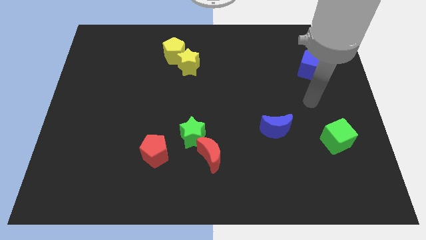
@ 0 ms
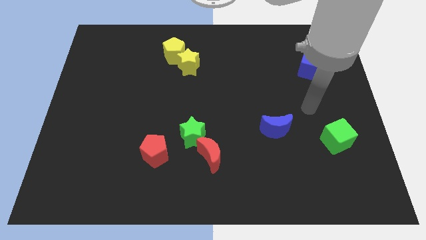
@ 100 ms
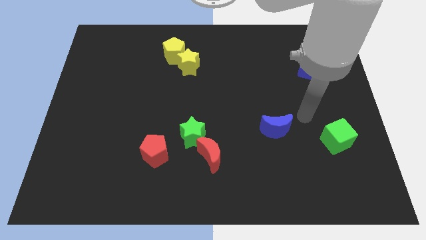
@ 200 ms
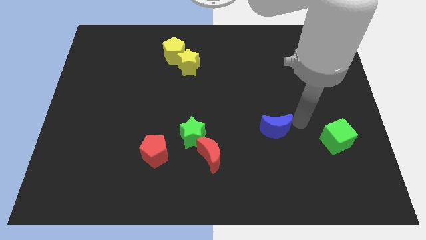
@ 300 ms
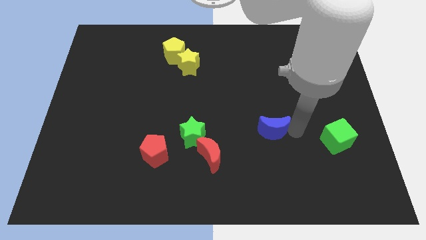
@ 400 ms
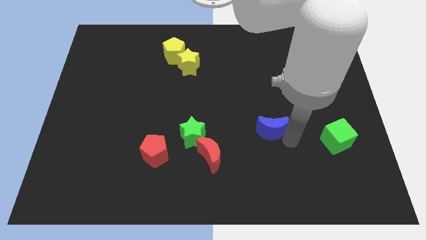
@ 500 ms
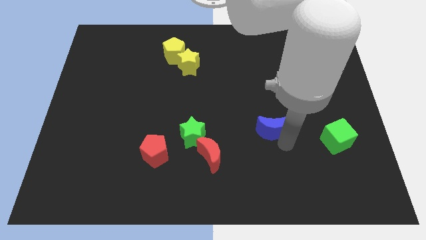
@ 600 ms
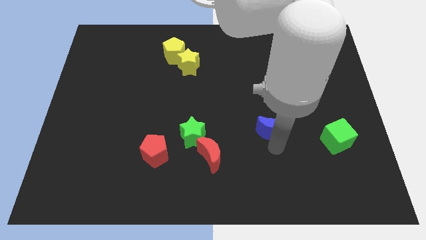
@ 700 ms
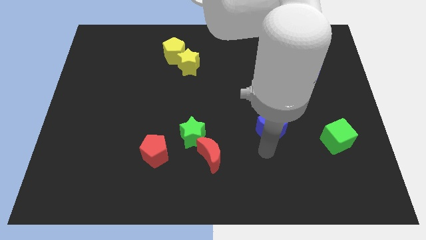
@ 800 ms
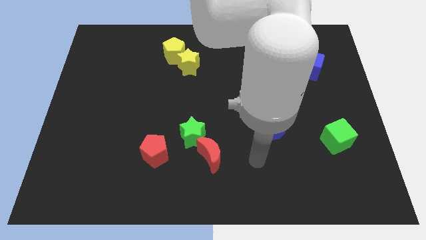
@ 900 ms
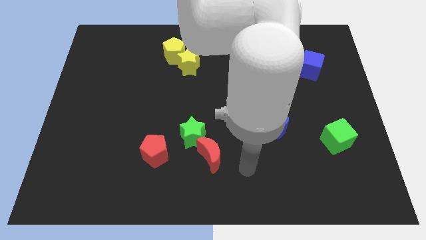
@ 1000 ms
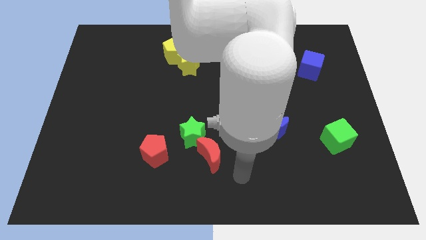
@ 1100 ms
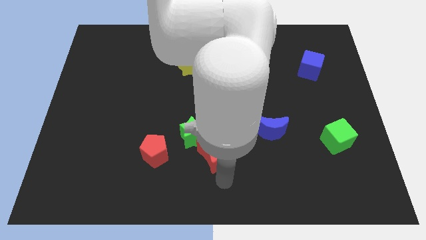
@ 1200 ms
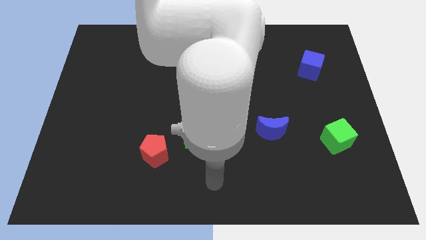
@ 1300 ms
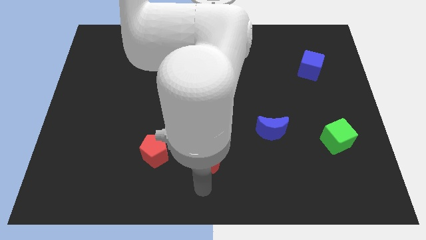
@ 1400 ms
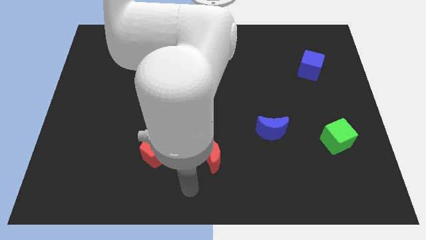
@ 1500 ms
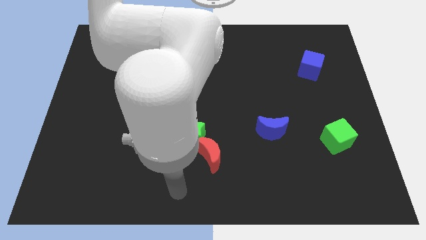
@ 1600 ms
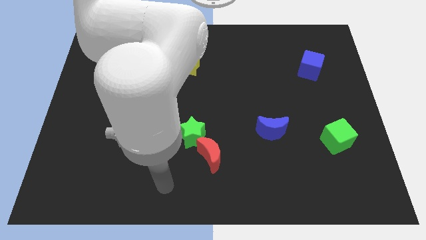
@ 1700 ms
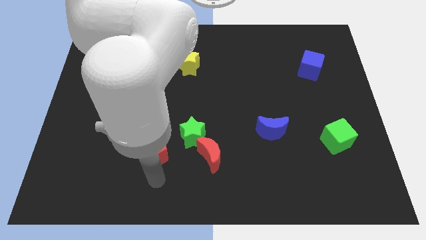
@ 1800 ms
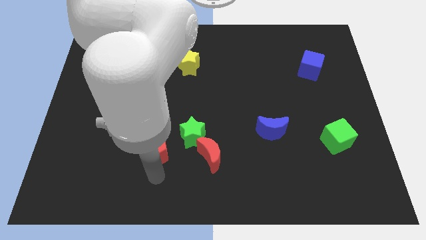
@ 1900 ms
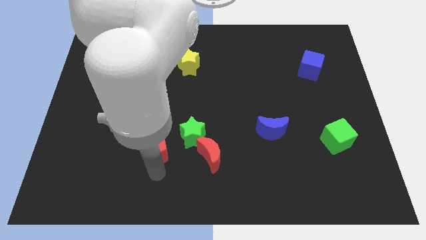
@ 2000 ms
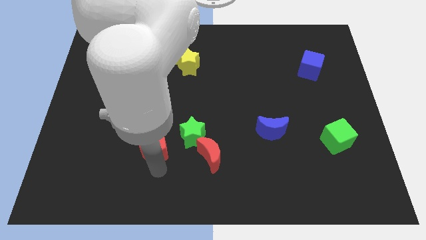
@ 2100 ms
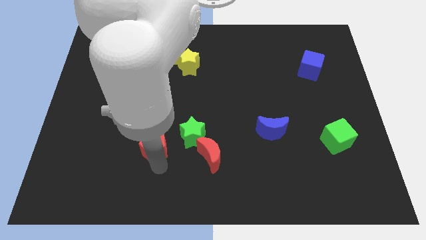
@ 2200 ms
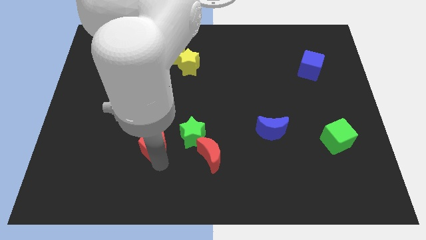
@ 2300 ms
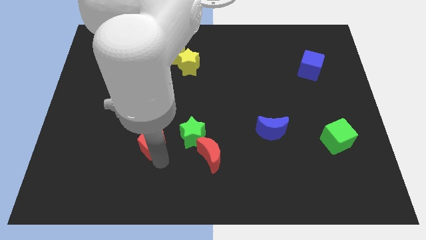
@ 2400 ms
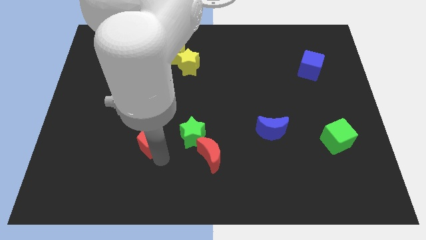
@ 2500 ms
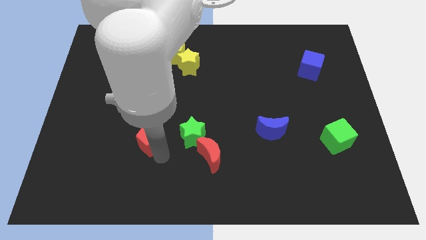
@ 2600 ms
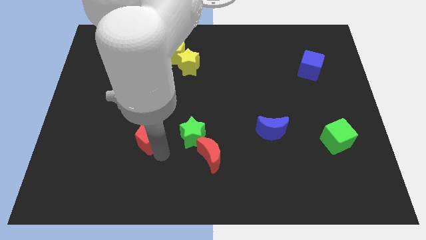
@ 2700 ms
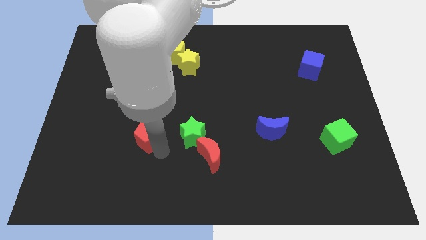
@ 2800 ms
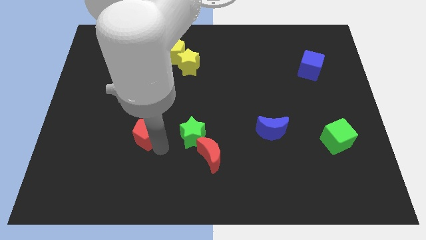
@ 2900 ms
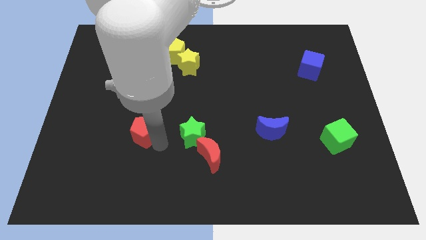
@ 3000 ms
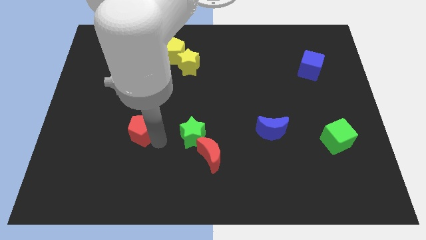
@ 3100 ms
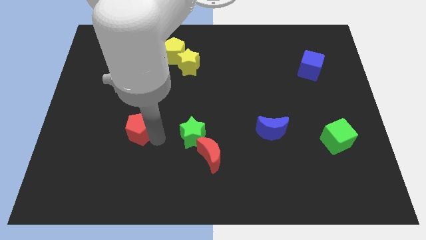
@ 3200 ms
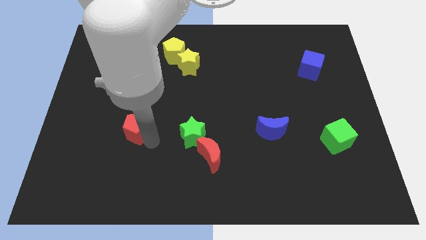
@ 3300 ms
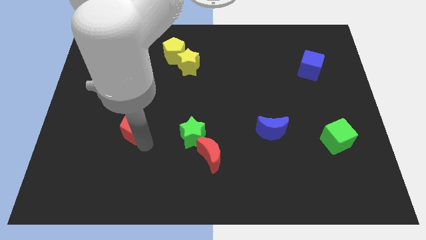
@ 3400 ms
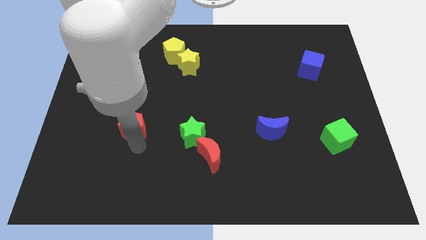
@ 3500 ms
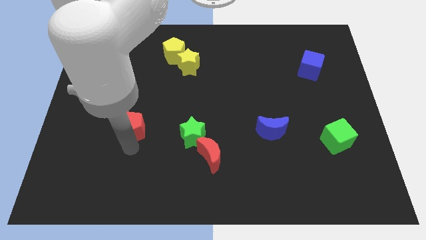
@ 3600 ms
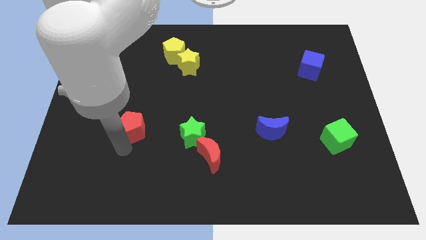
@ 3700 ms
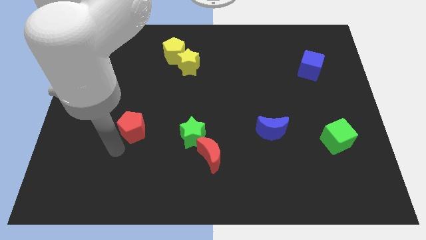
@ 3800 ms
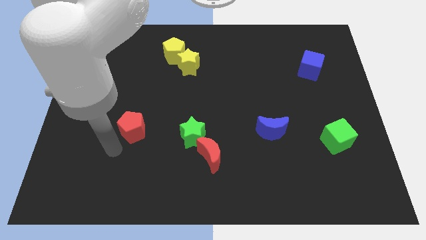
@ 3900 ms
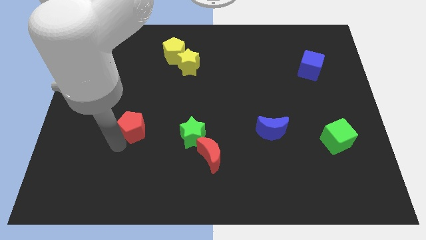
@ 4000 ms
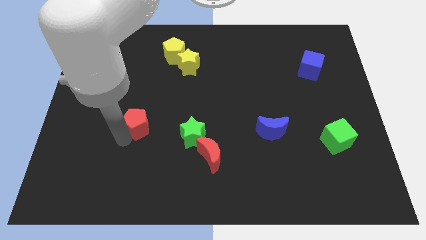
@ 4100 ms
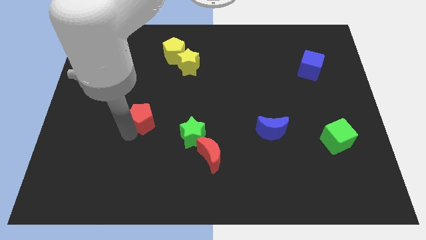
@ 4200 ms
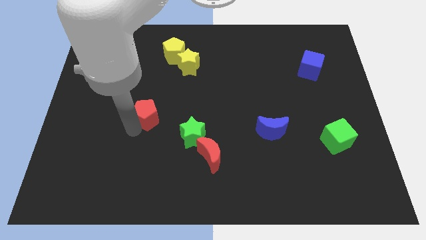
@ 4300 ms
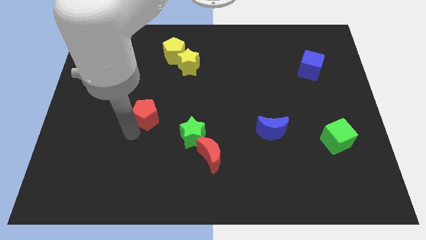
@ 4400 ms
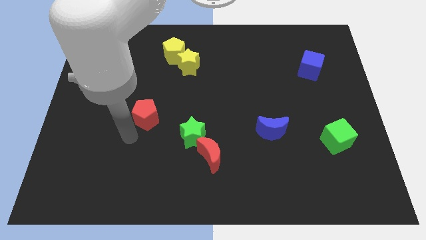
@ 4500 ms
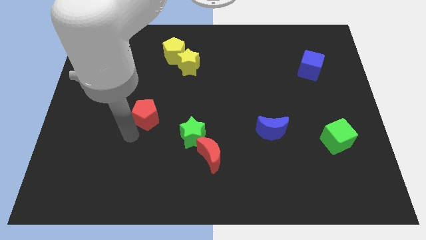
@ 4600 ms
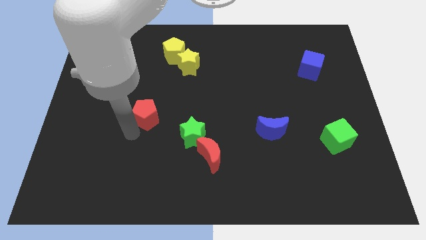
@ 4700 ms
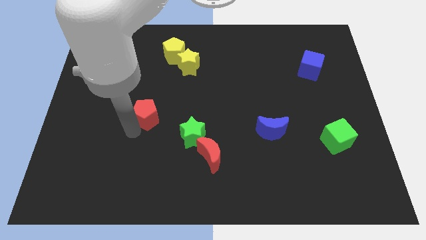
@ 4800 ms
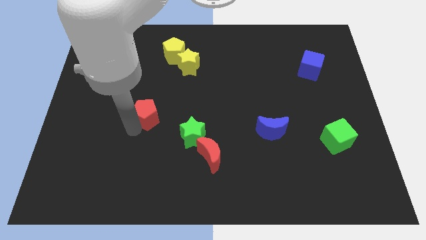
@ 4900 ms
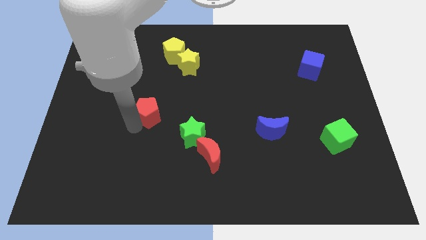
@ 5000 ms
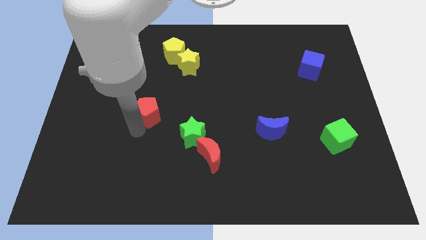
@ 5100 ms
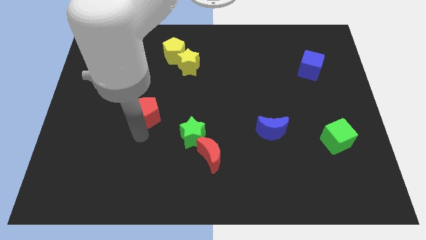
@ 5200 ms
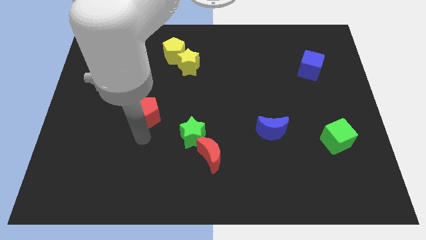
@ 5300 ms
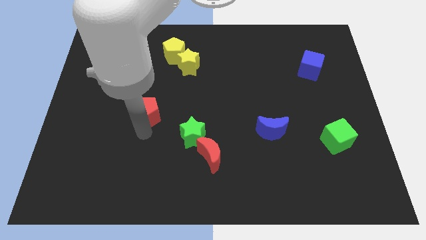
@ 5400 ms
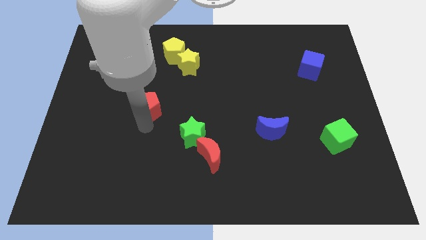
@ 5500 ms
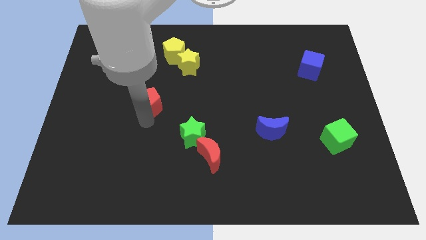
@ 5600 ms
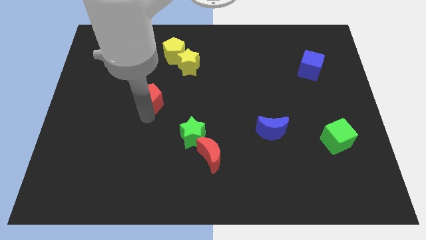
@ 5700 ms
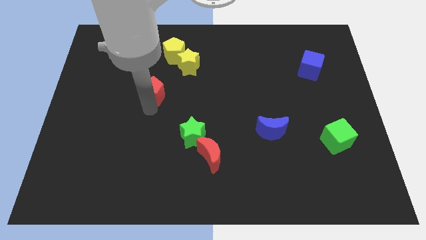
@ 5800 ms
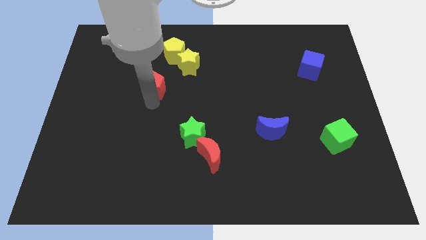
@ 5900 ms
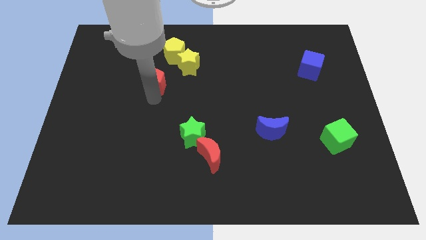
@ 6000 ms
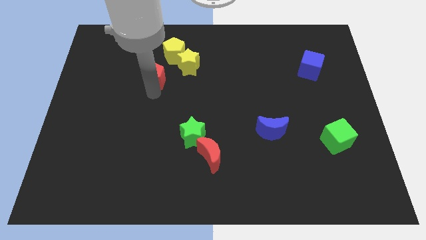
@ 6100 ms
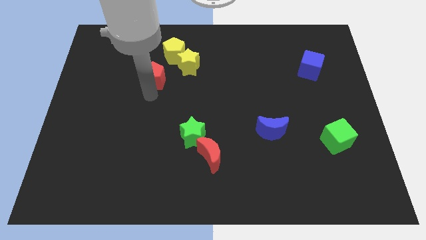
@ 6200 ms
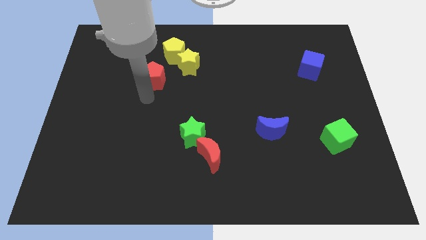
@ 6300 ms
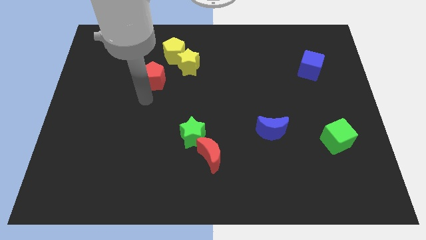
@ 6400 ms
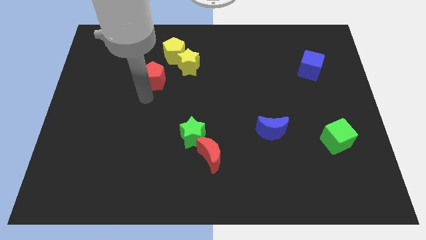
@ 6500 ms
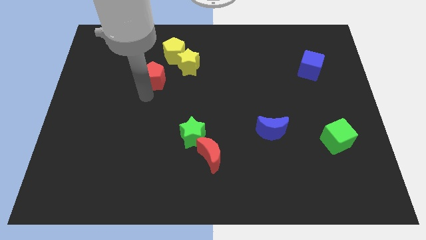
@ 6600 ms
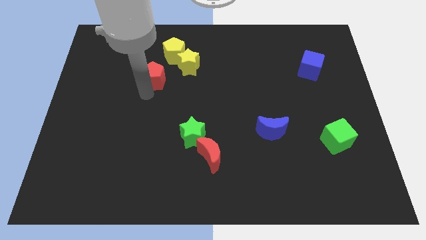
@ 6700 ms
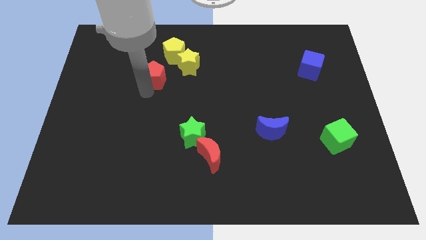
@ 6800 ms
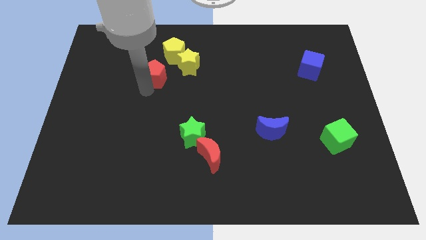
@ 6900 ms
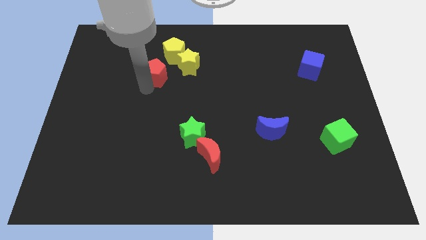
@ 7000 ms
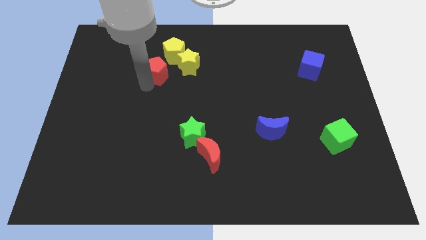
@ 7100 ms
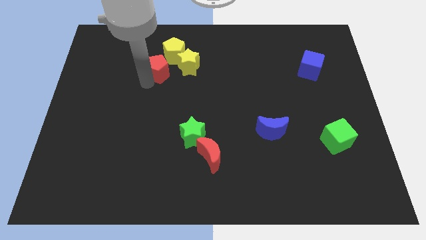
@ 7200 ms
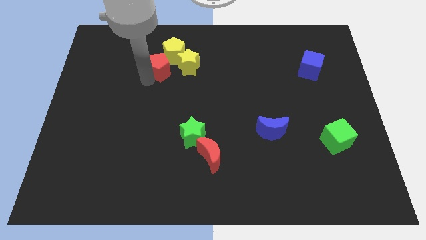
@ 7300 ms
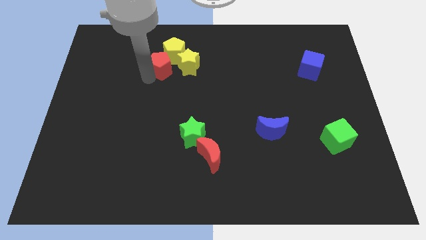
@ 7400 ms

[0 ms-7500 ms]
put the red pentagon next to the yellow pentagon
